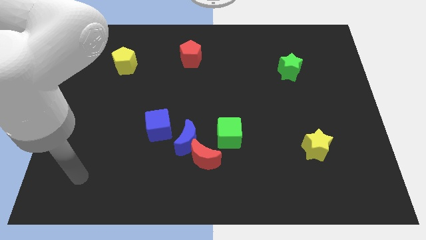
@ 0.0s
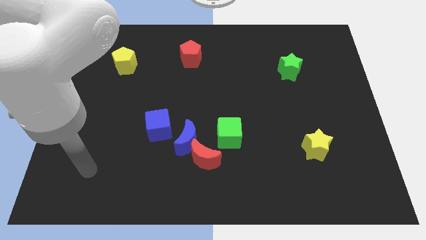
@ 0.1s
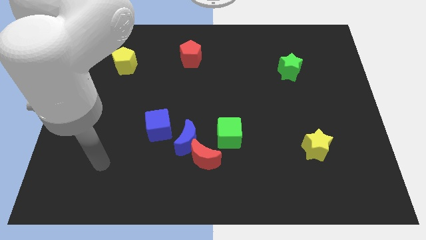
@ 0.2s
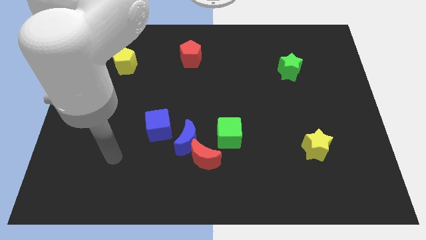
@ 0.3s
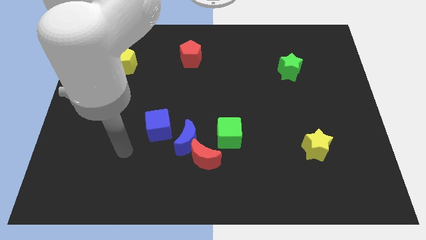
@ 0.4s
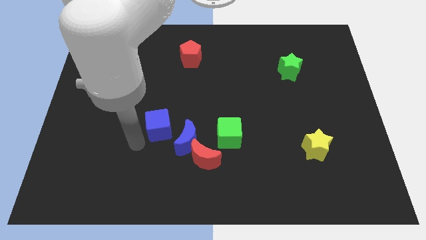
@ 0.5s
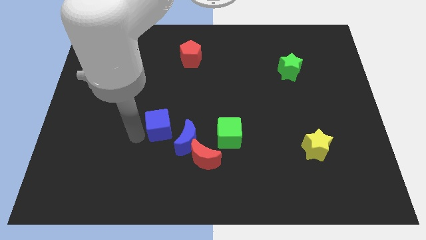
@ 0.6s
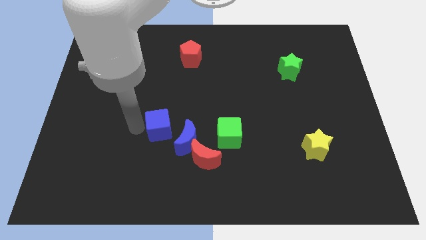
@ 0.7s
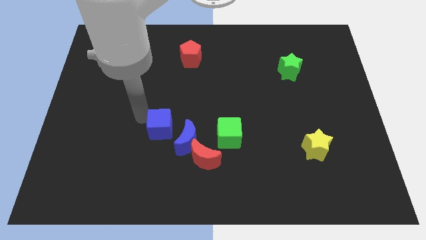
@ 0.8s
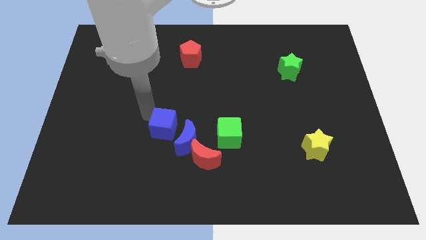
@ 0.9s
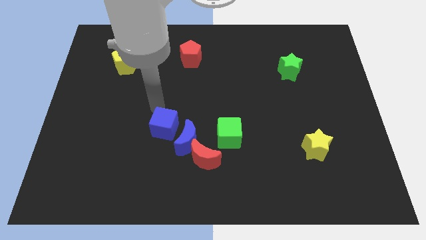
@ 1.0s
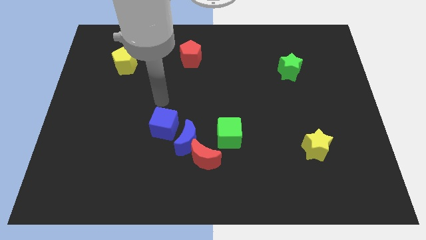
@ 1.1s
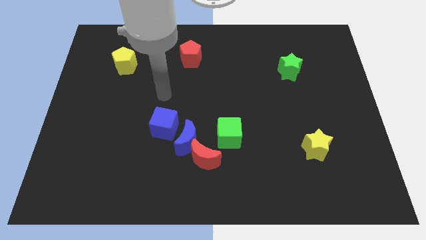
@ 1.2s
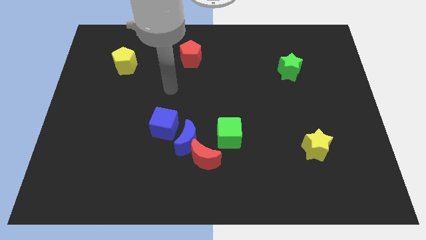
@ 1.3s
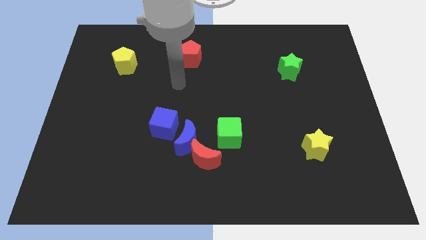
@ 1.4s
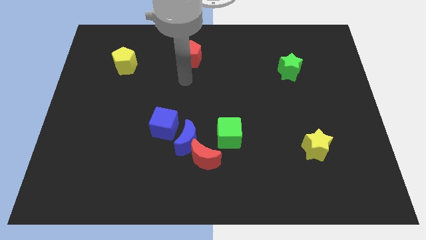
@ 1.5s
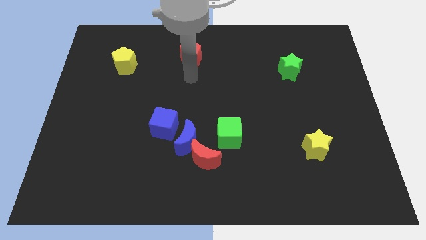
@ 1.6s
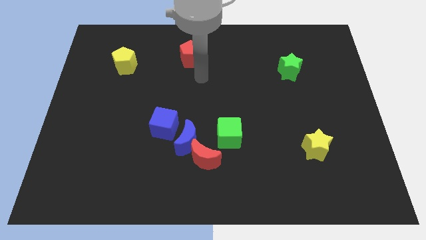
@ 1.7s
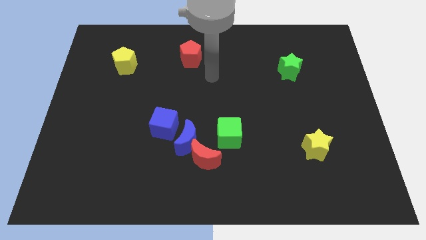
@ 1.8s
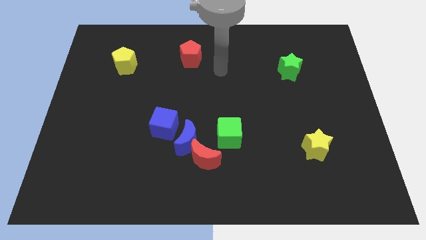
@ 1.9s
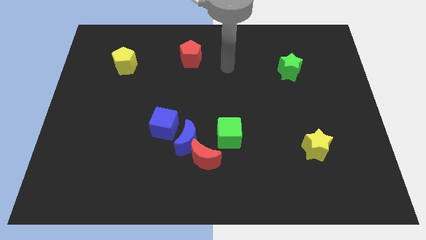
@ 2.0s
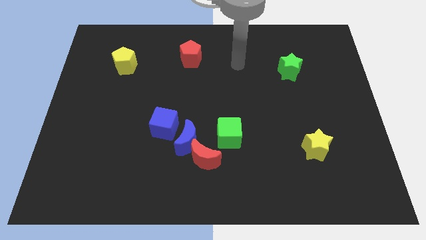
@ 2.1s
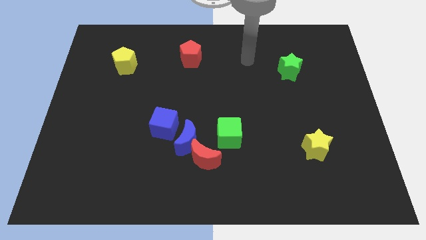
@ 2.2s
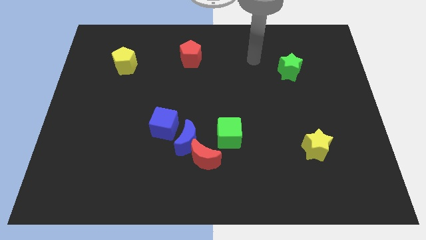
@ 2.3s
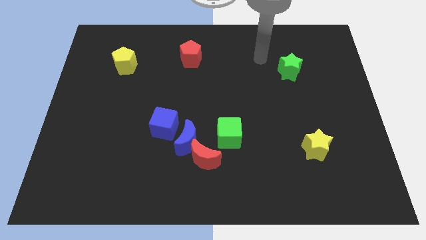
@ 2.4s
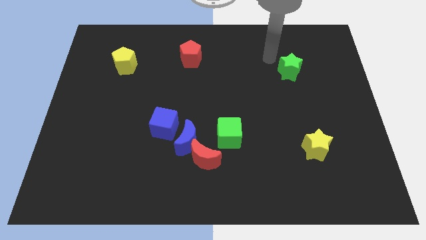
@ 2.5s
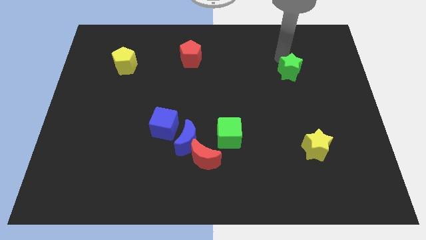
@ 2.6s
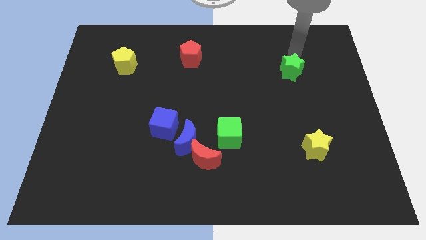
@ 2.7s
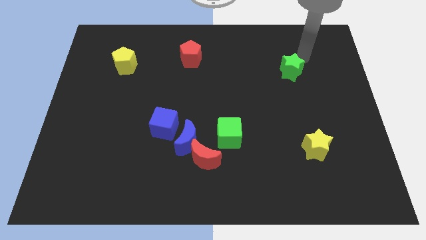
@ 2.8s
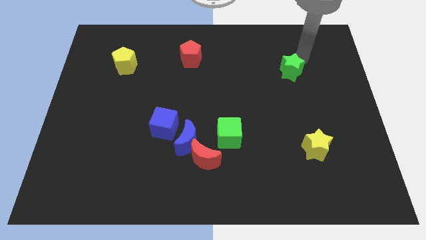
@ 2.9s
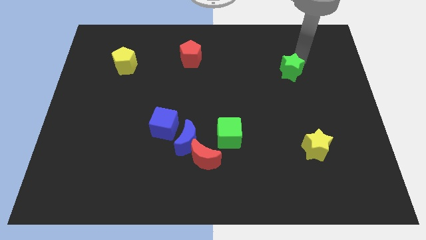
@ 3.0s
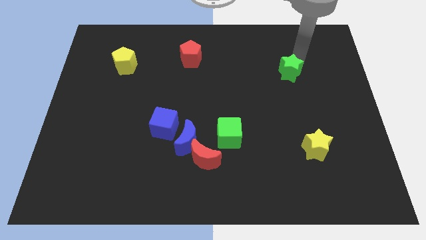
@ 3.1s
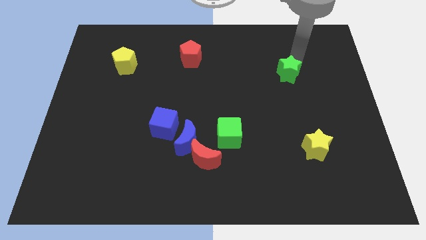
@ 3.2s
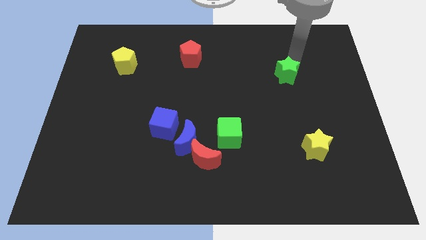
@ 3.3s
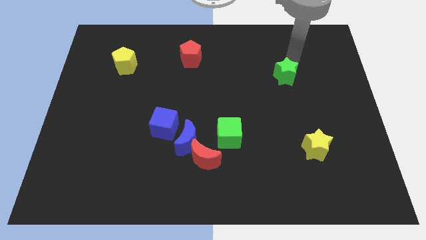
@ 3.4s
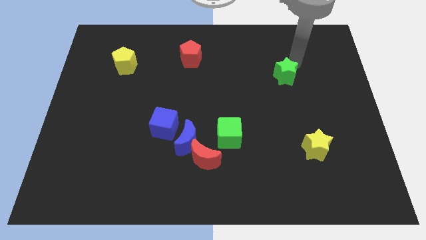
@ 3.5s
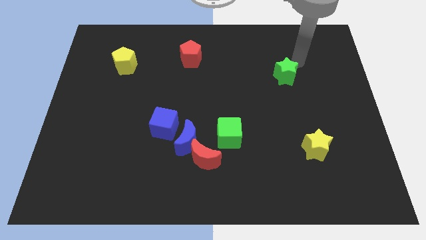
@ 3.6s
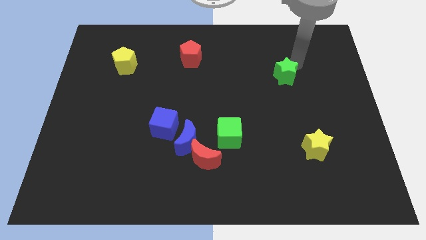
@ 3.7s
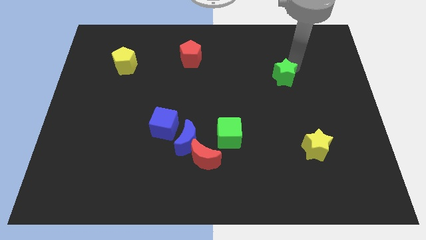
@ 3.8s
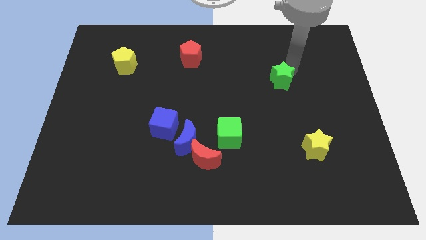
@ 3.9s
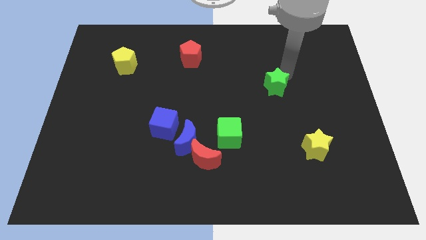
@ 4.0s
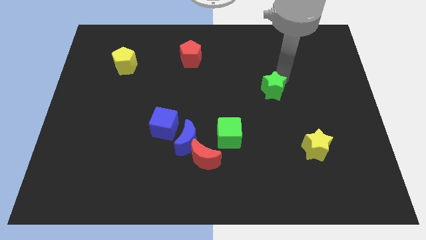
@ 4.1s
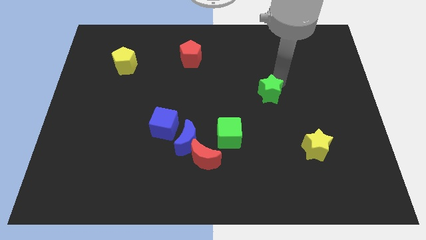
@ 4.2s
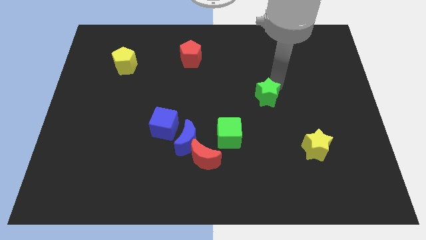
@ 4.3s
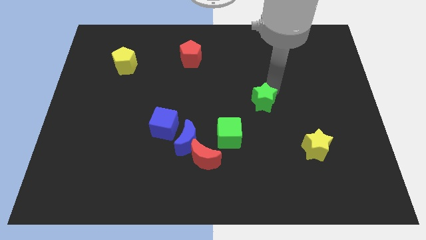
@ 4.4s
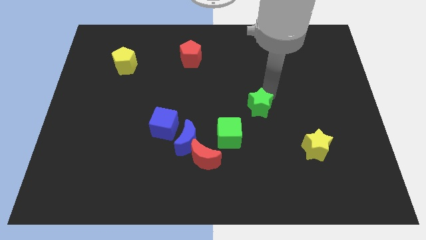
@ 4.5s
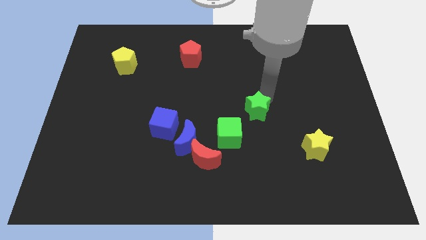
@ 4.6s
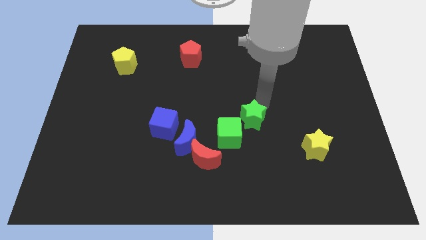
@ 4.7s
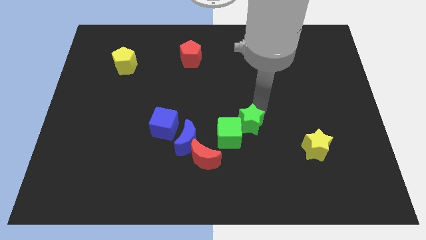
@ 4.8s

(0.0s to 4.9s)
push the green star towards the green cube

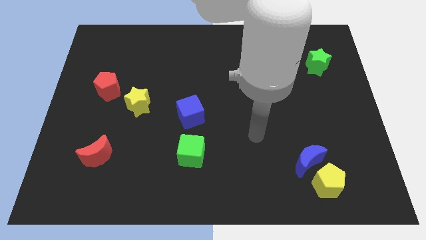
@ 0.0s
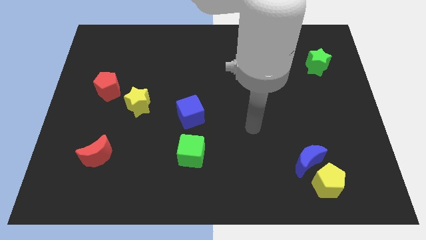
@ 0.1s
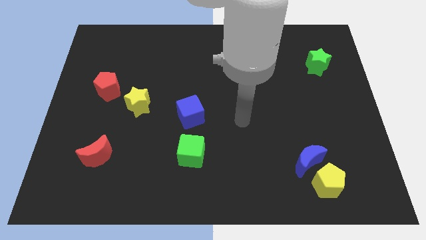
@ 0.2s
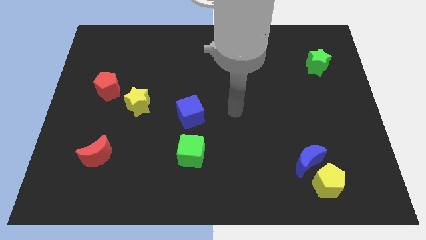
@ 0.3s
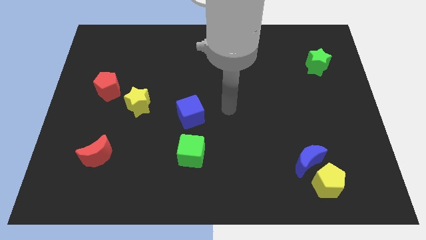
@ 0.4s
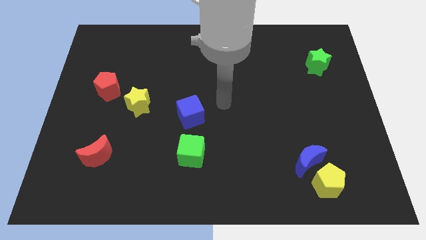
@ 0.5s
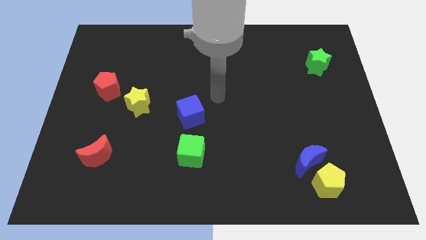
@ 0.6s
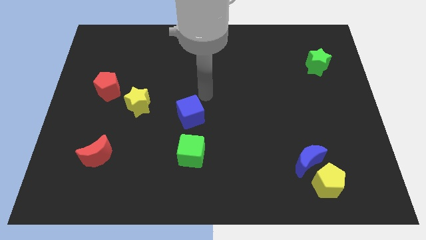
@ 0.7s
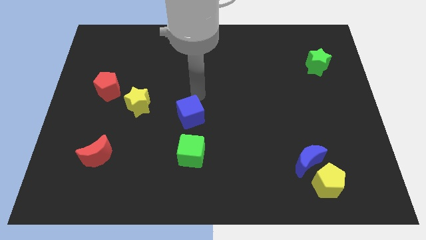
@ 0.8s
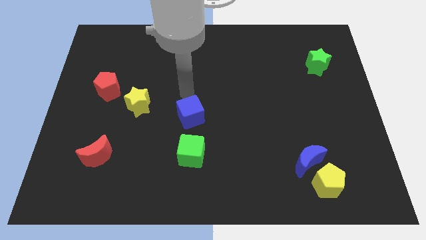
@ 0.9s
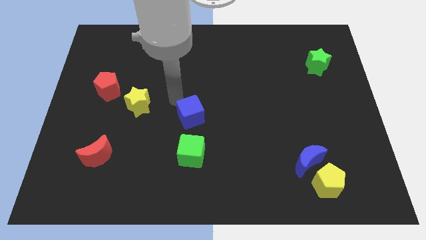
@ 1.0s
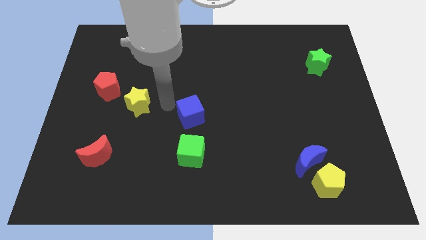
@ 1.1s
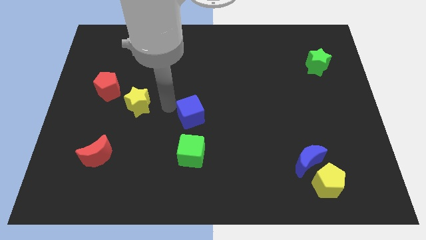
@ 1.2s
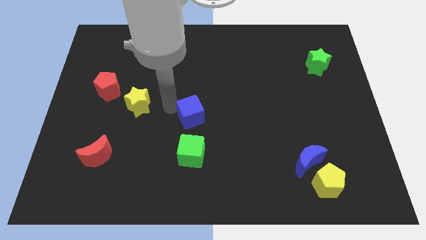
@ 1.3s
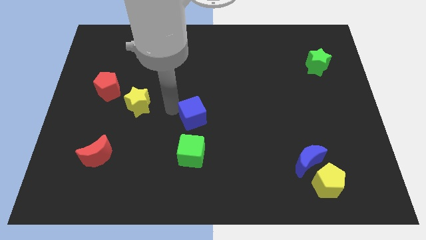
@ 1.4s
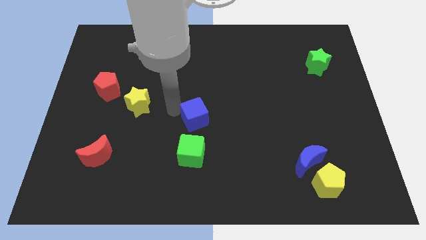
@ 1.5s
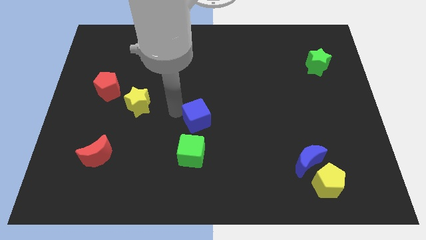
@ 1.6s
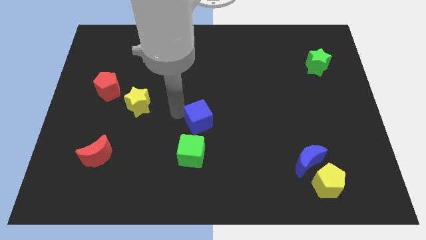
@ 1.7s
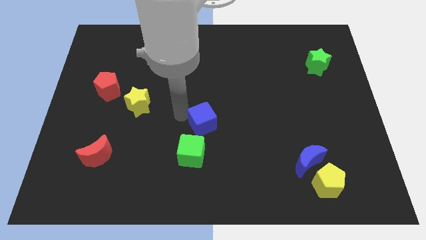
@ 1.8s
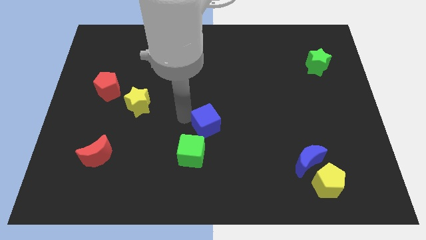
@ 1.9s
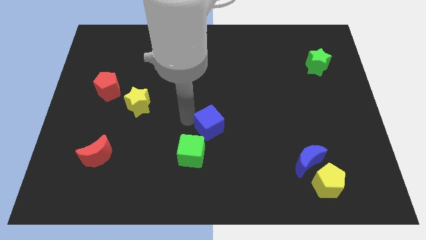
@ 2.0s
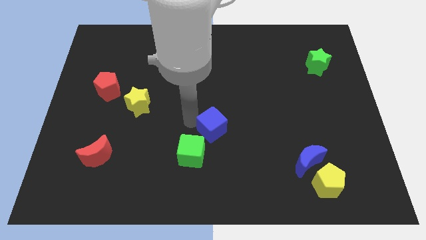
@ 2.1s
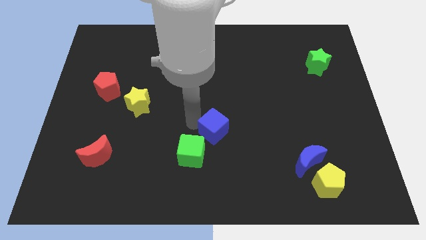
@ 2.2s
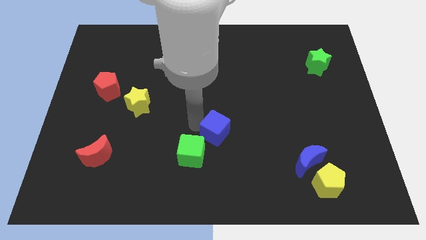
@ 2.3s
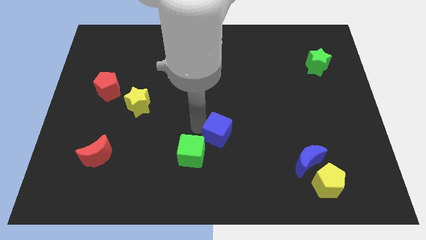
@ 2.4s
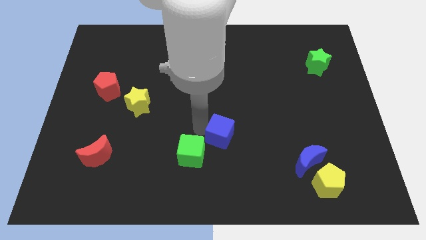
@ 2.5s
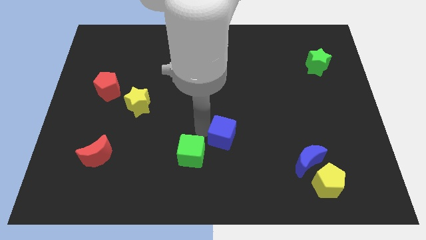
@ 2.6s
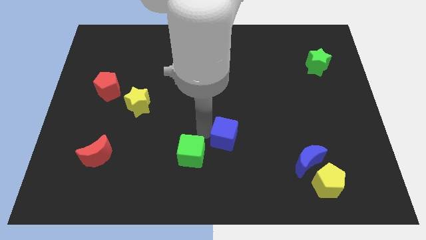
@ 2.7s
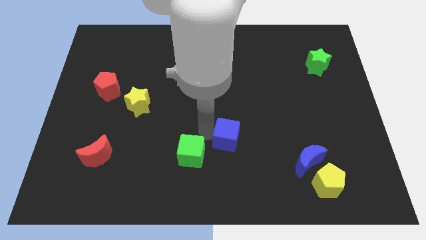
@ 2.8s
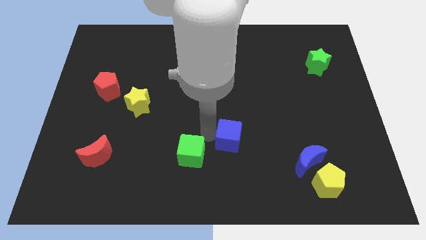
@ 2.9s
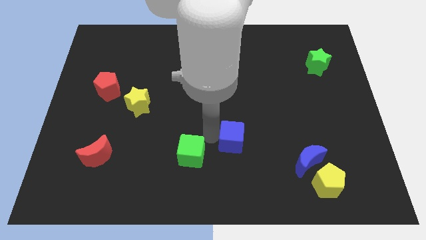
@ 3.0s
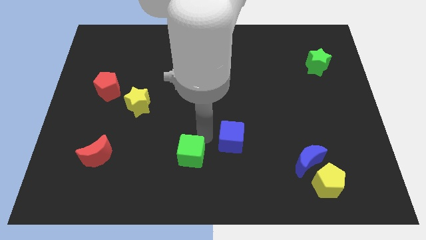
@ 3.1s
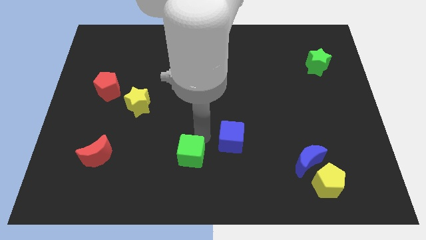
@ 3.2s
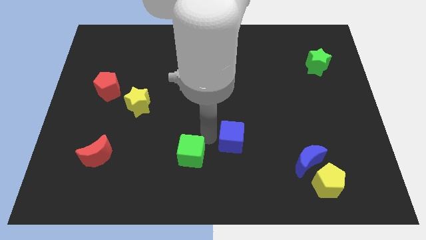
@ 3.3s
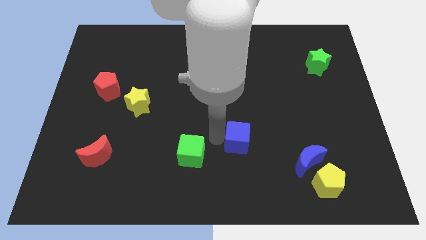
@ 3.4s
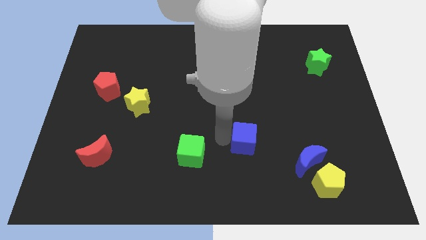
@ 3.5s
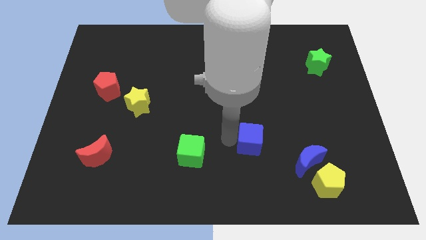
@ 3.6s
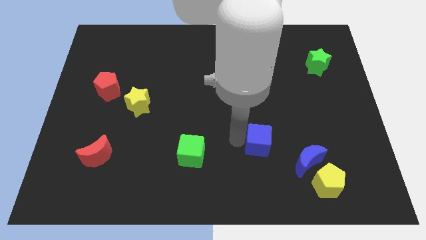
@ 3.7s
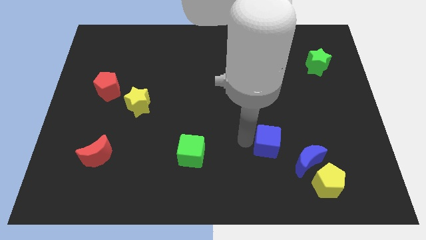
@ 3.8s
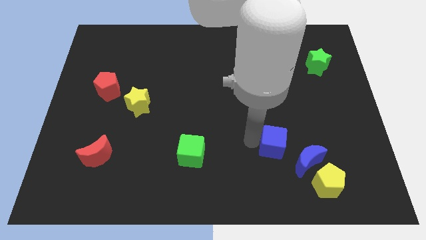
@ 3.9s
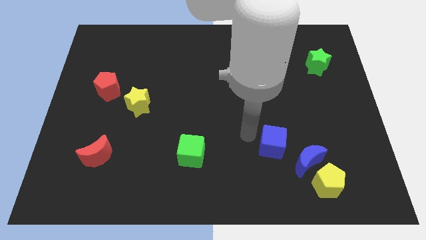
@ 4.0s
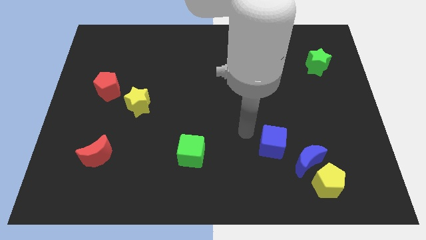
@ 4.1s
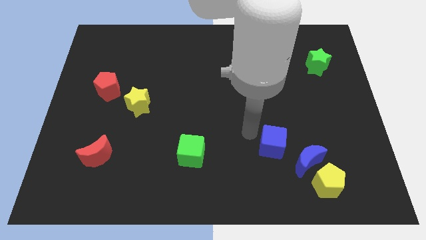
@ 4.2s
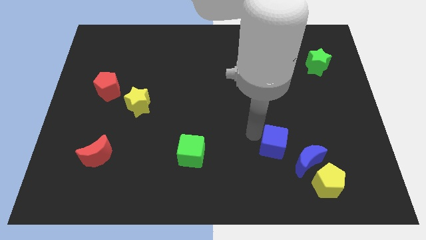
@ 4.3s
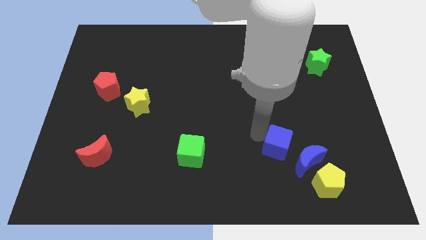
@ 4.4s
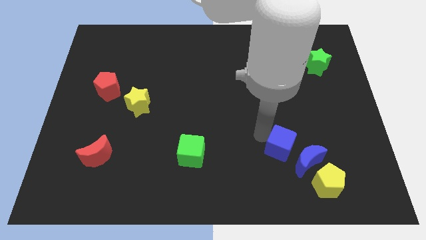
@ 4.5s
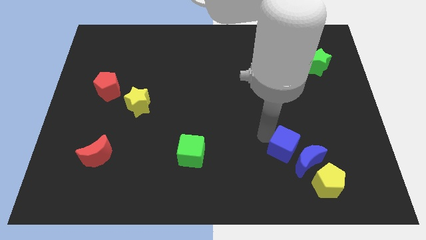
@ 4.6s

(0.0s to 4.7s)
slide the blue cube close to the blue moon
